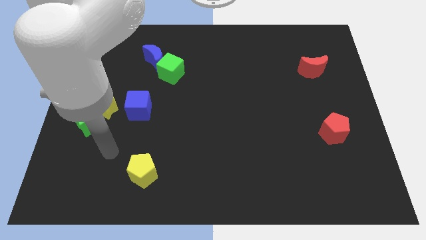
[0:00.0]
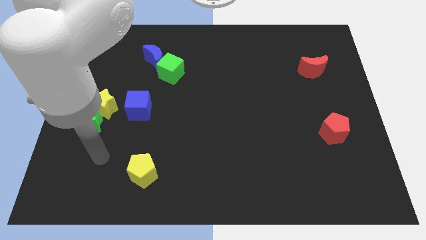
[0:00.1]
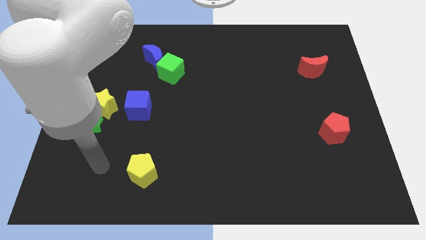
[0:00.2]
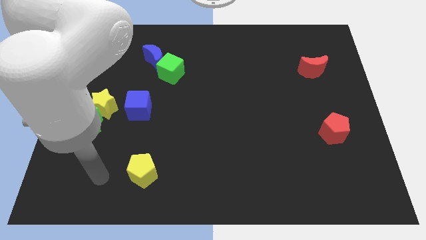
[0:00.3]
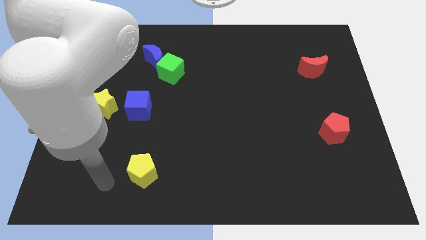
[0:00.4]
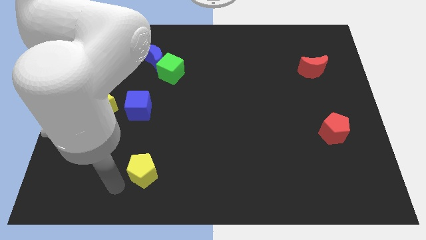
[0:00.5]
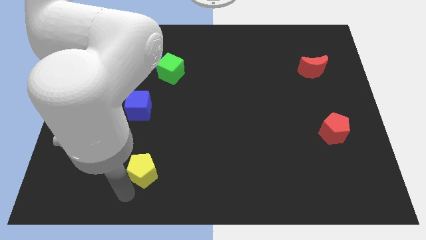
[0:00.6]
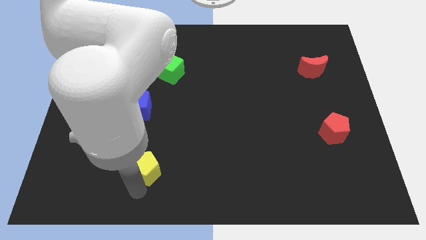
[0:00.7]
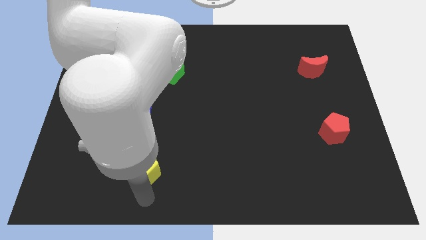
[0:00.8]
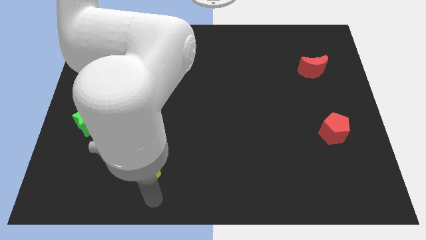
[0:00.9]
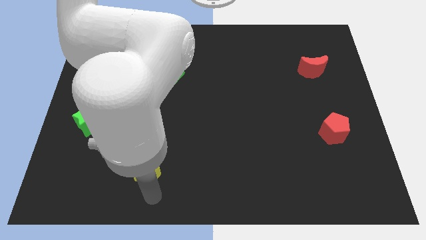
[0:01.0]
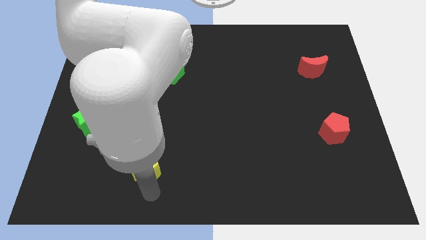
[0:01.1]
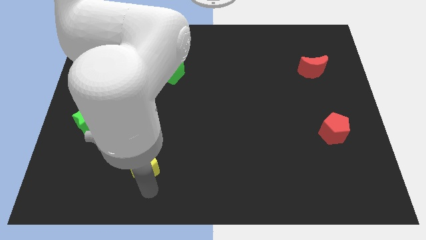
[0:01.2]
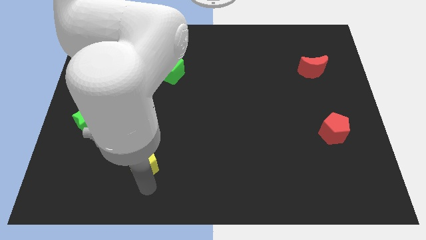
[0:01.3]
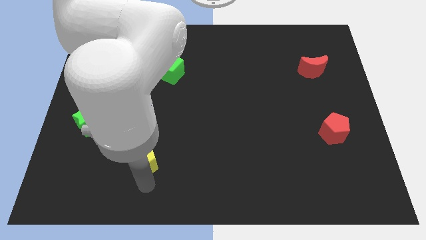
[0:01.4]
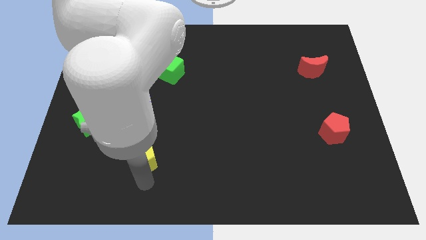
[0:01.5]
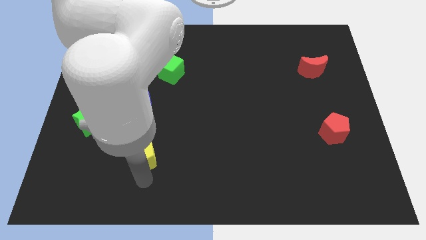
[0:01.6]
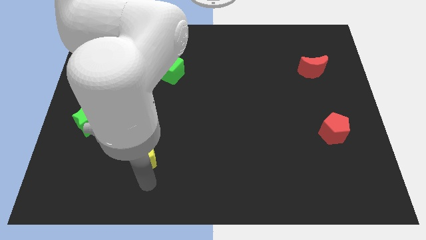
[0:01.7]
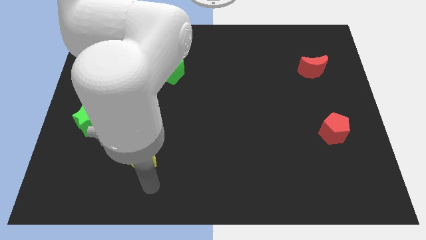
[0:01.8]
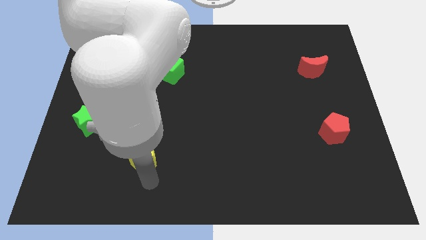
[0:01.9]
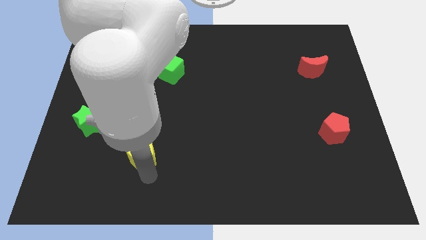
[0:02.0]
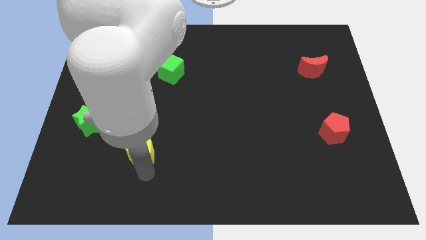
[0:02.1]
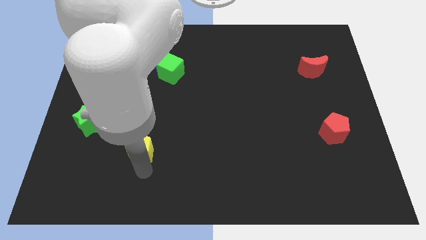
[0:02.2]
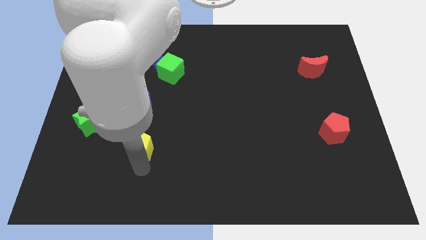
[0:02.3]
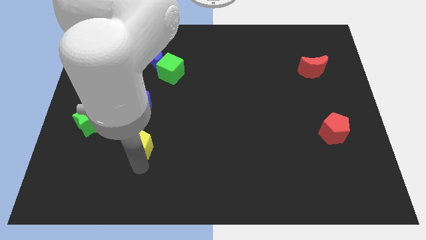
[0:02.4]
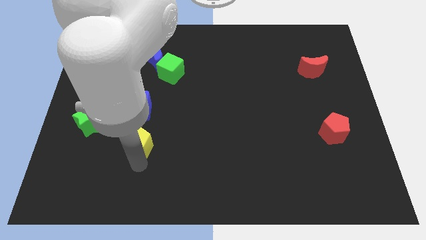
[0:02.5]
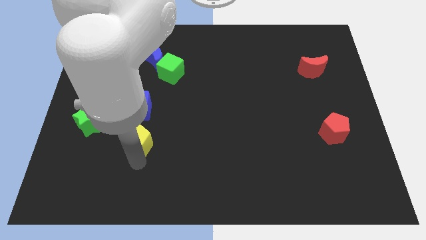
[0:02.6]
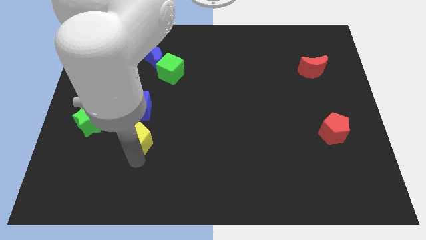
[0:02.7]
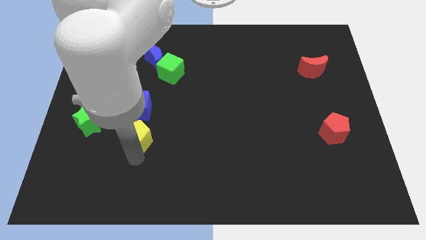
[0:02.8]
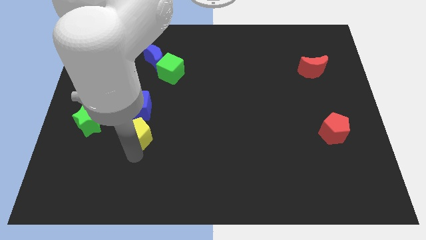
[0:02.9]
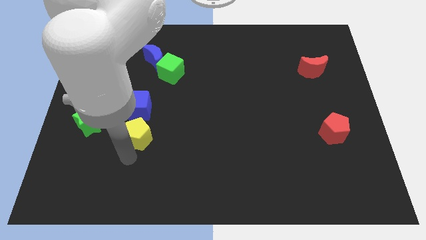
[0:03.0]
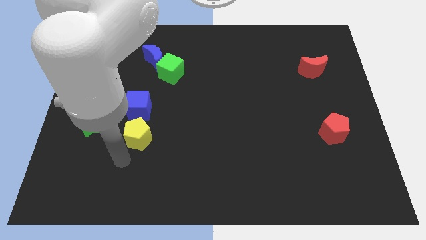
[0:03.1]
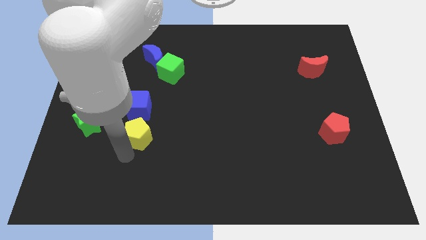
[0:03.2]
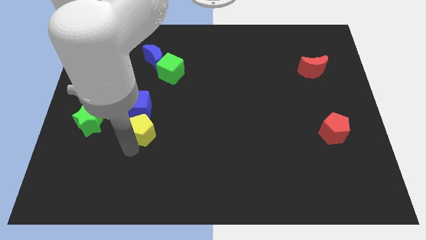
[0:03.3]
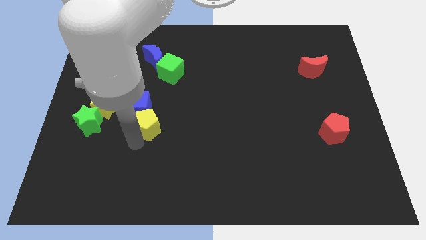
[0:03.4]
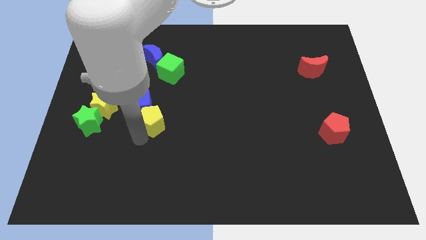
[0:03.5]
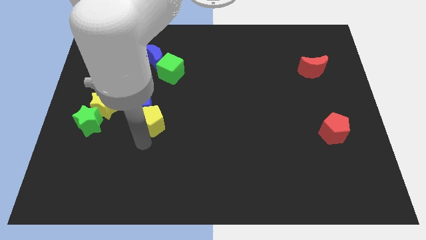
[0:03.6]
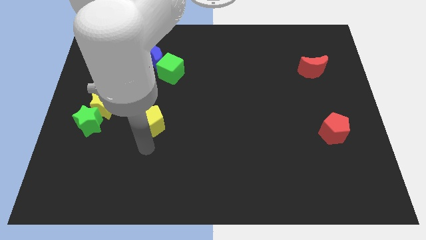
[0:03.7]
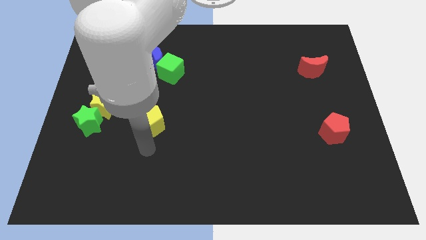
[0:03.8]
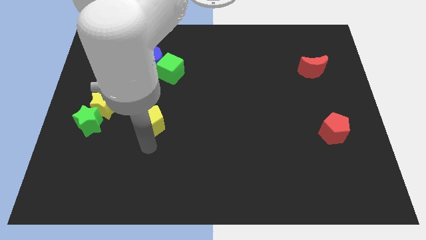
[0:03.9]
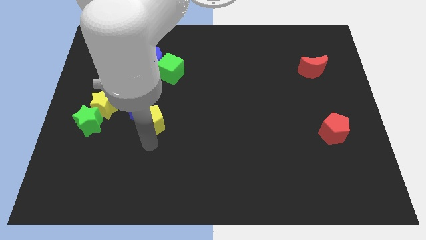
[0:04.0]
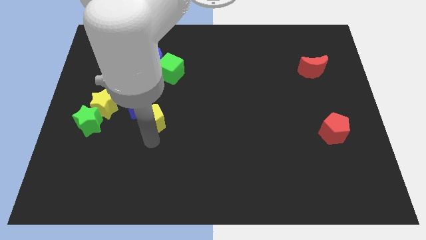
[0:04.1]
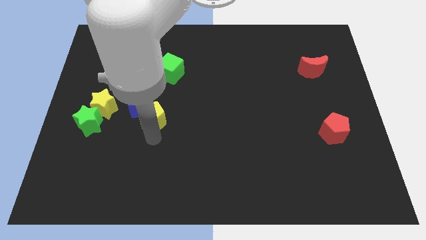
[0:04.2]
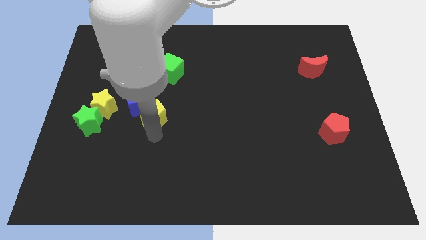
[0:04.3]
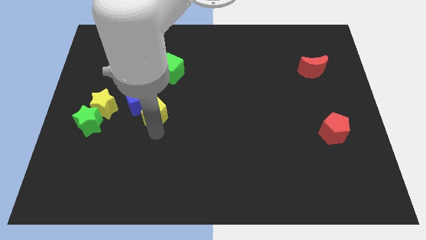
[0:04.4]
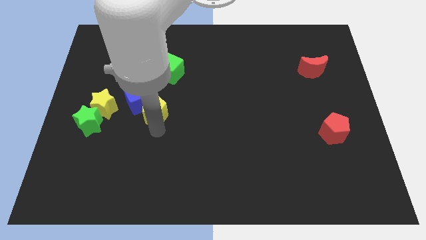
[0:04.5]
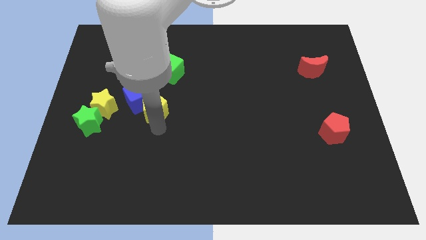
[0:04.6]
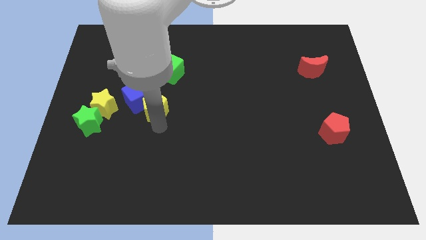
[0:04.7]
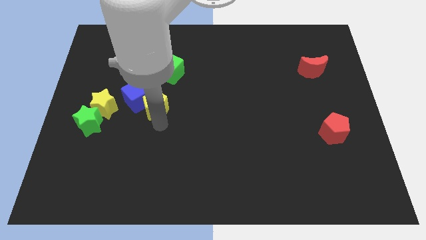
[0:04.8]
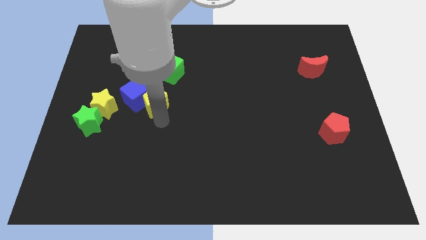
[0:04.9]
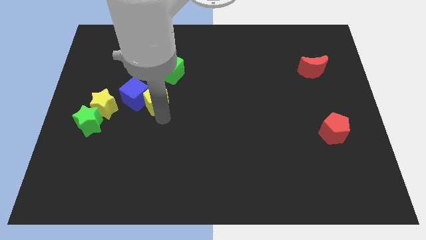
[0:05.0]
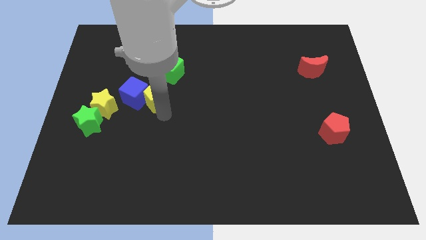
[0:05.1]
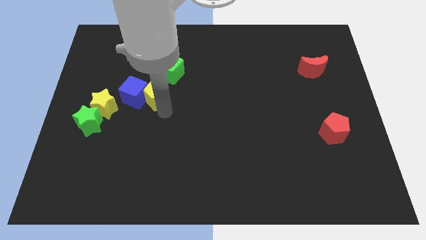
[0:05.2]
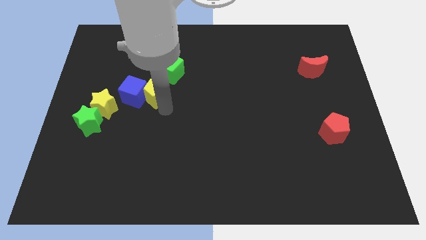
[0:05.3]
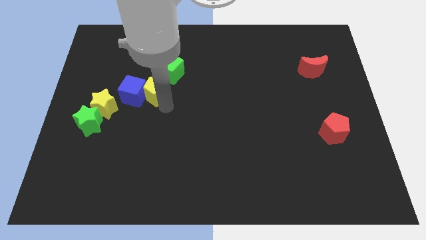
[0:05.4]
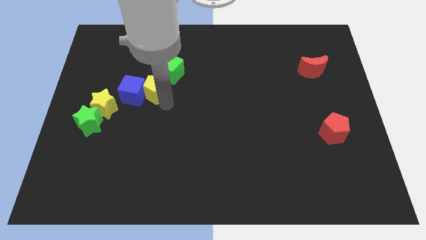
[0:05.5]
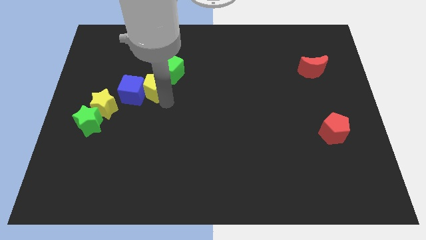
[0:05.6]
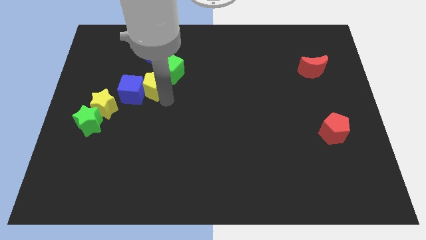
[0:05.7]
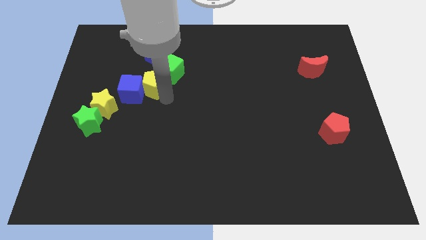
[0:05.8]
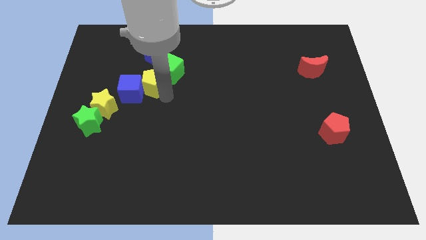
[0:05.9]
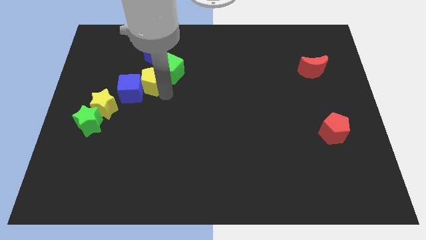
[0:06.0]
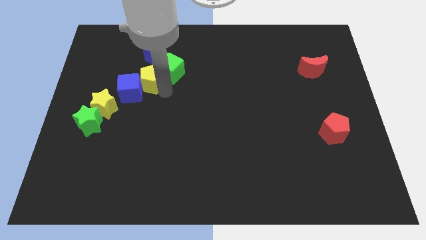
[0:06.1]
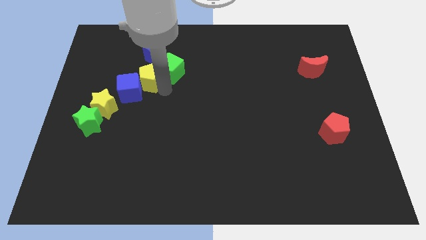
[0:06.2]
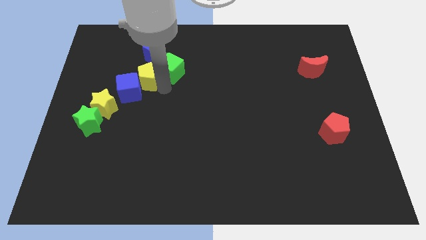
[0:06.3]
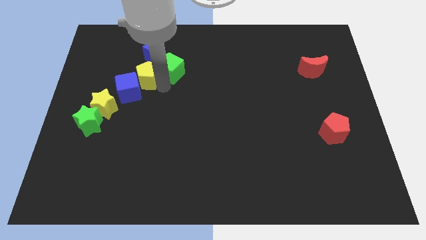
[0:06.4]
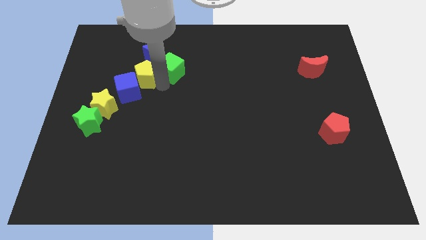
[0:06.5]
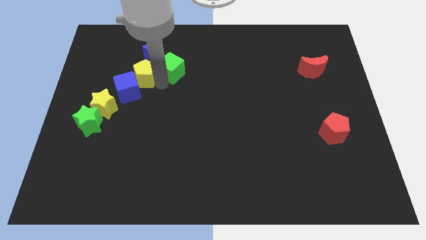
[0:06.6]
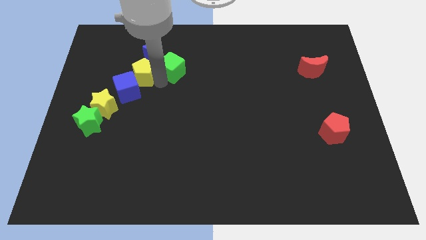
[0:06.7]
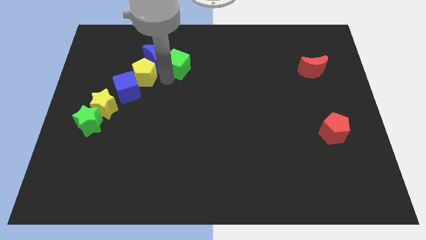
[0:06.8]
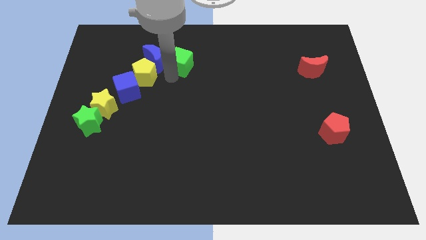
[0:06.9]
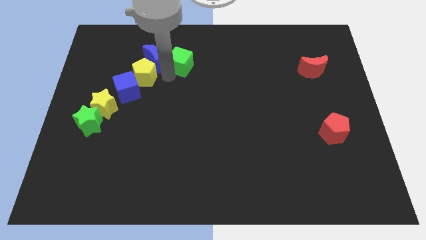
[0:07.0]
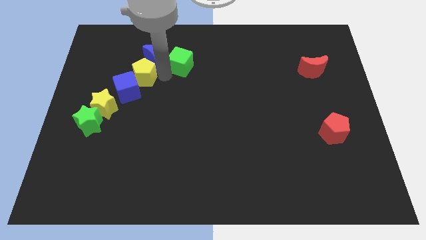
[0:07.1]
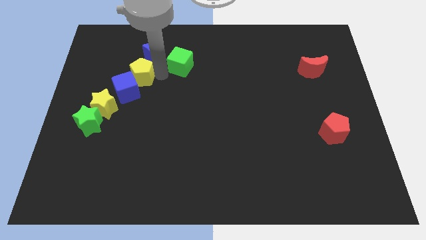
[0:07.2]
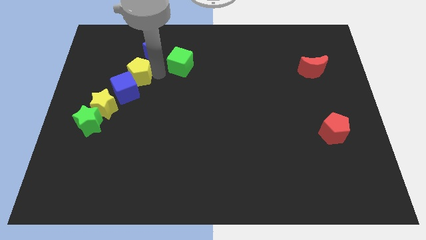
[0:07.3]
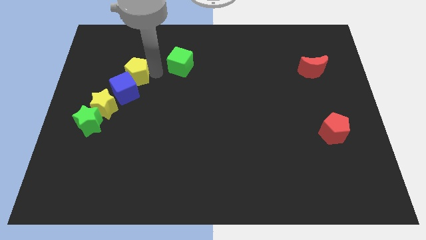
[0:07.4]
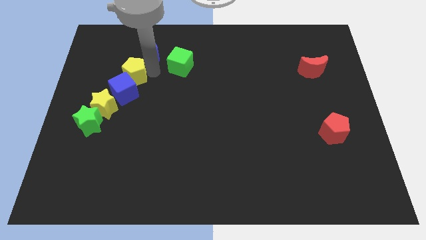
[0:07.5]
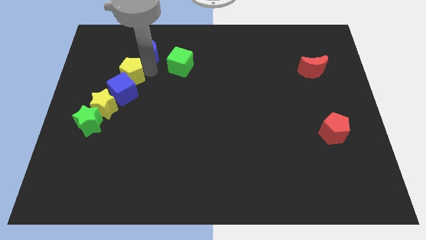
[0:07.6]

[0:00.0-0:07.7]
slide the yellow pentagon to the top side of the yellow star
